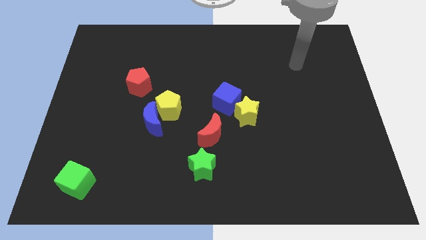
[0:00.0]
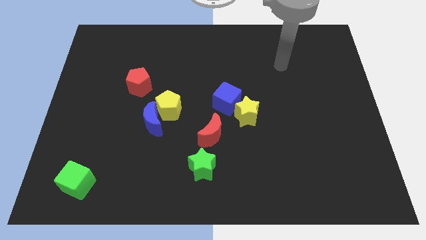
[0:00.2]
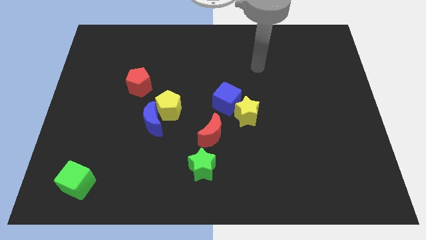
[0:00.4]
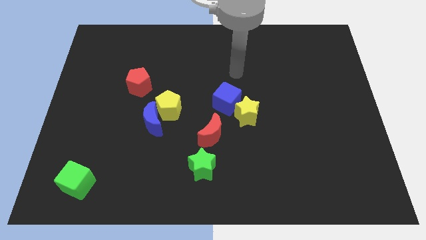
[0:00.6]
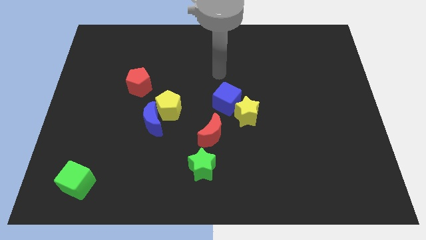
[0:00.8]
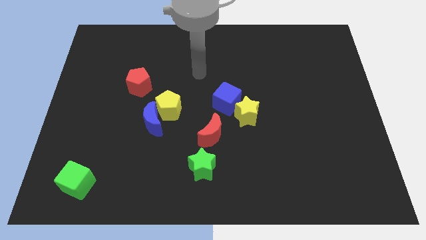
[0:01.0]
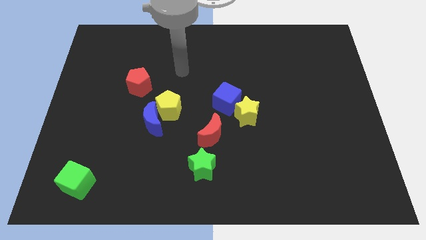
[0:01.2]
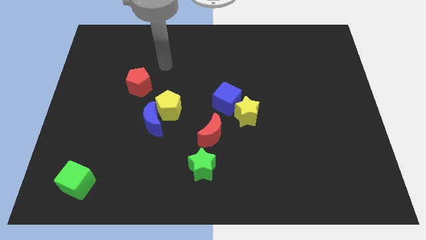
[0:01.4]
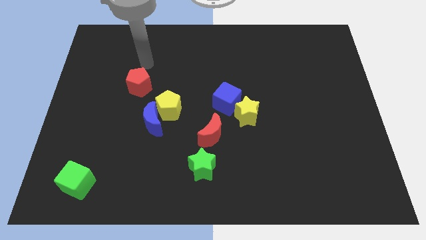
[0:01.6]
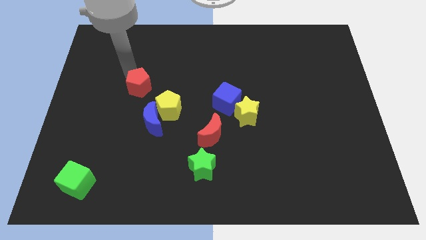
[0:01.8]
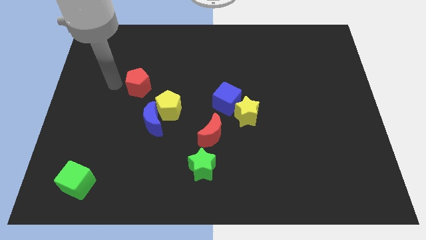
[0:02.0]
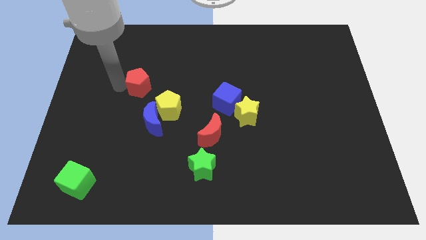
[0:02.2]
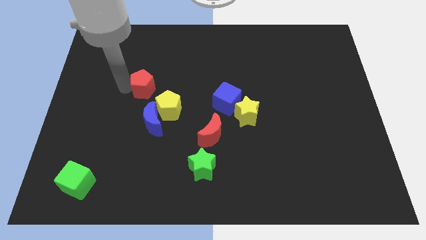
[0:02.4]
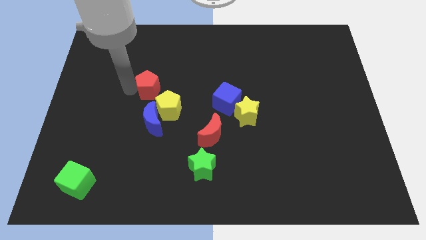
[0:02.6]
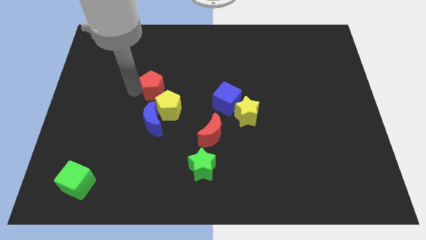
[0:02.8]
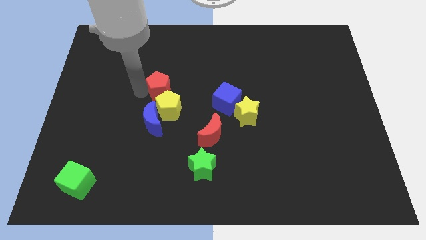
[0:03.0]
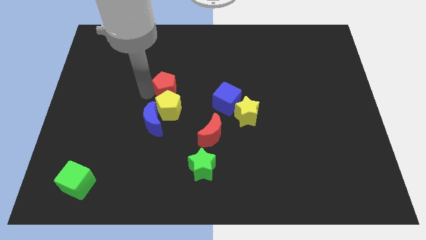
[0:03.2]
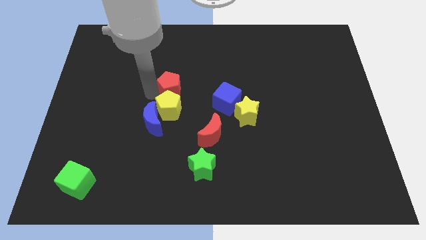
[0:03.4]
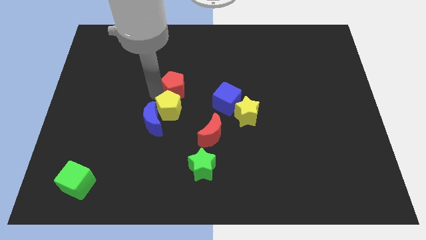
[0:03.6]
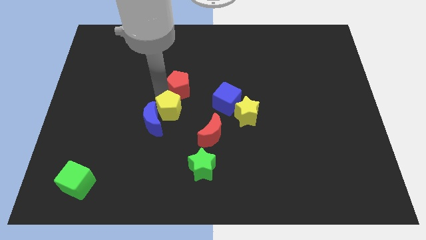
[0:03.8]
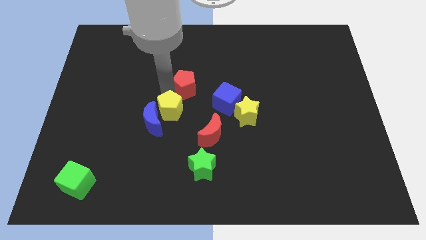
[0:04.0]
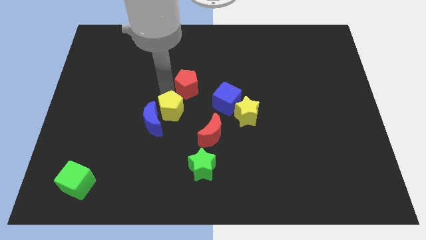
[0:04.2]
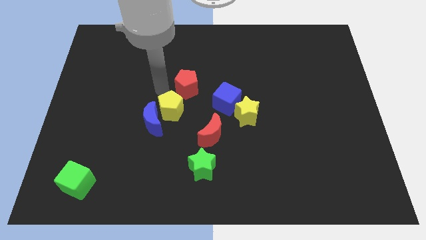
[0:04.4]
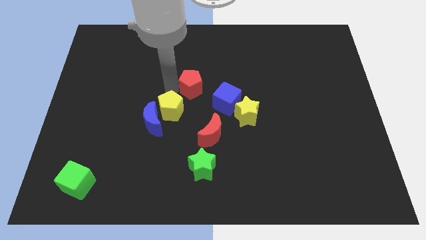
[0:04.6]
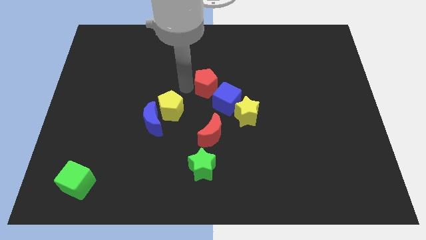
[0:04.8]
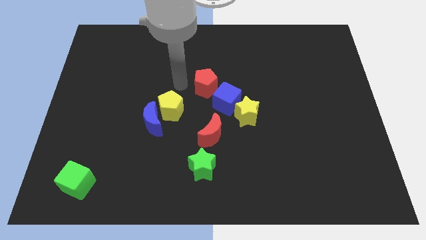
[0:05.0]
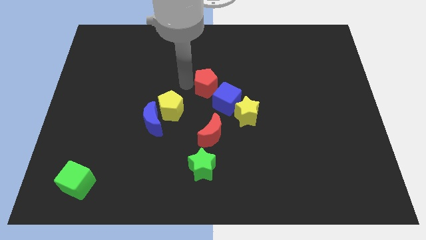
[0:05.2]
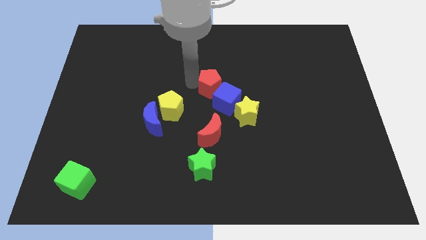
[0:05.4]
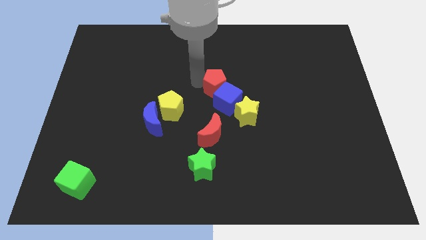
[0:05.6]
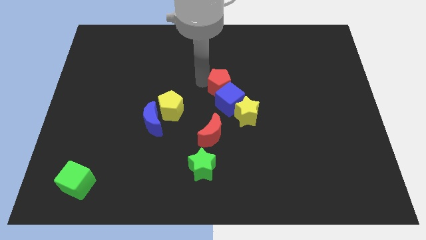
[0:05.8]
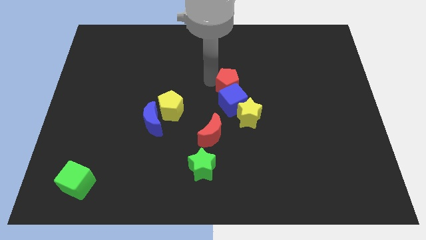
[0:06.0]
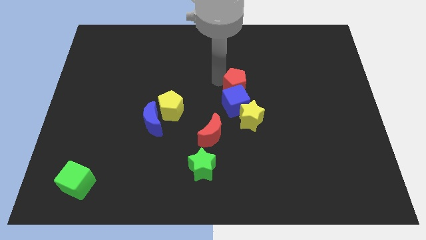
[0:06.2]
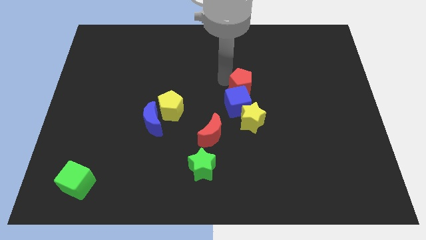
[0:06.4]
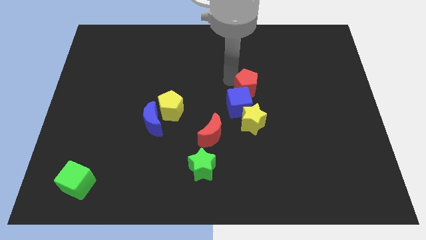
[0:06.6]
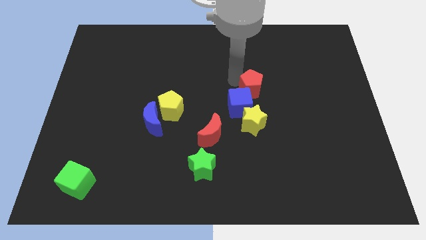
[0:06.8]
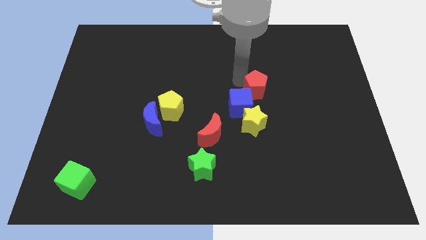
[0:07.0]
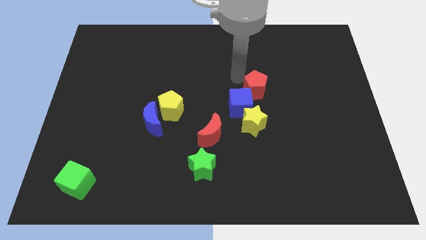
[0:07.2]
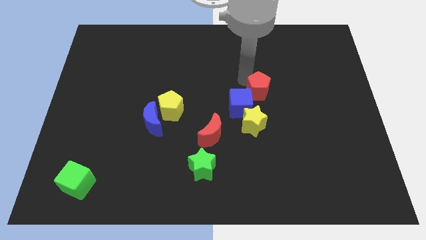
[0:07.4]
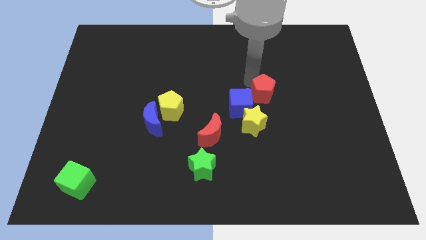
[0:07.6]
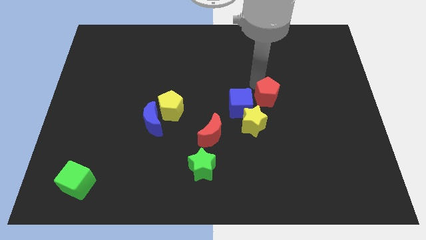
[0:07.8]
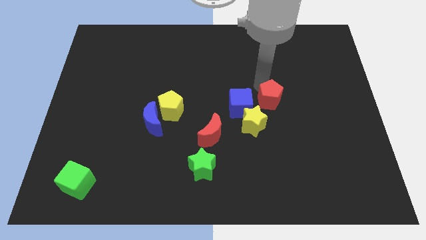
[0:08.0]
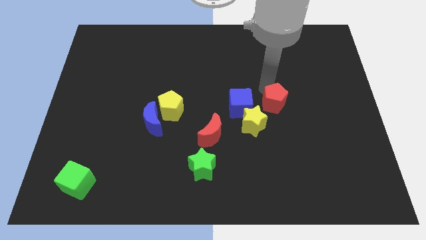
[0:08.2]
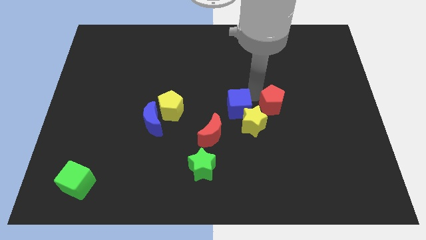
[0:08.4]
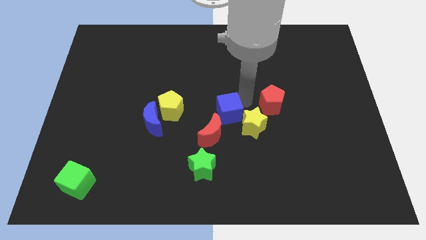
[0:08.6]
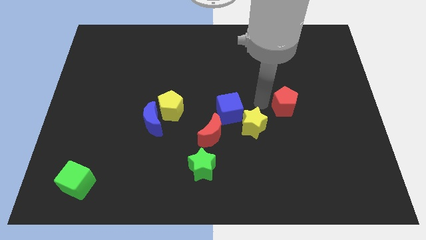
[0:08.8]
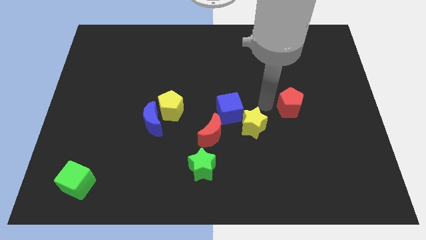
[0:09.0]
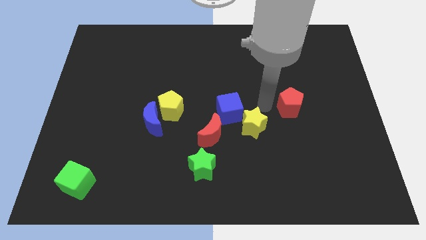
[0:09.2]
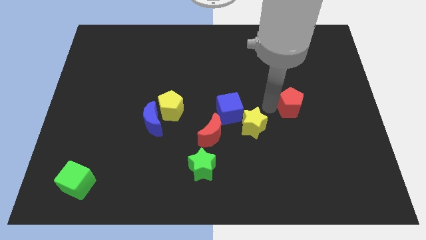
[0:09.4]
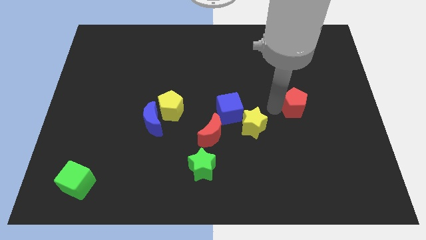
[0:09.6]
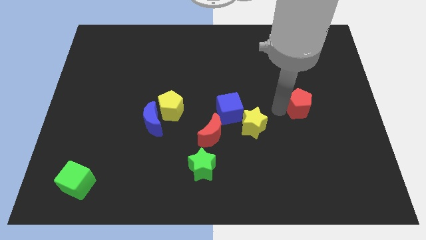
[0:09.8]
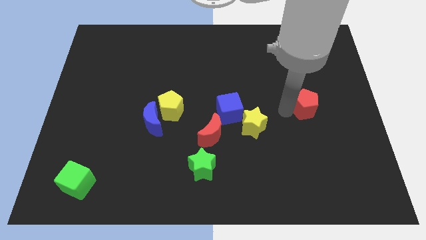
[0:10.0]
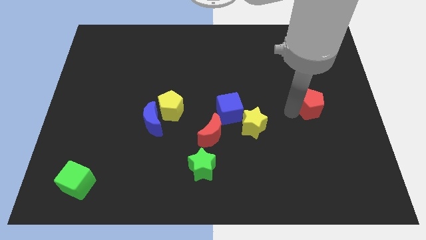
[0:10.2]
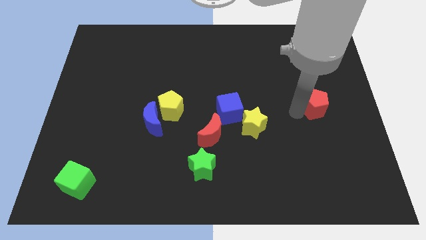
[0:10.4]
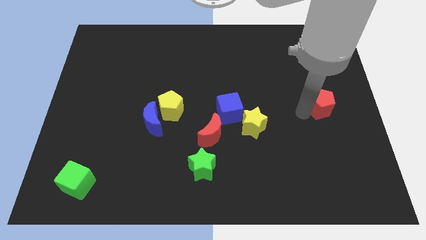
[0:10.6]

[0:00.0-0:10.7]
move the red pentagon to the right side of the board
